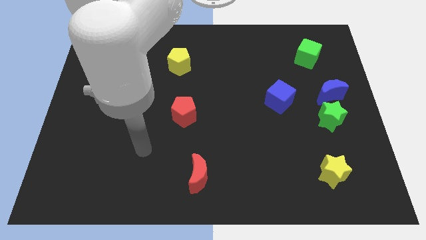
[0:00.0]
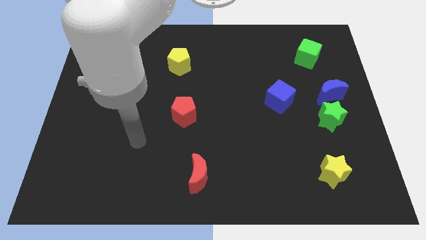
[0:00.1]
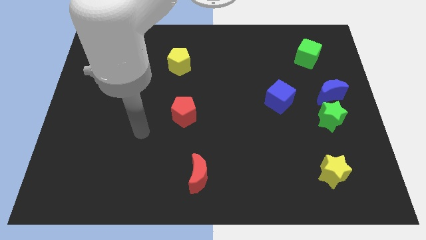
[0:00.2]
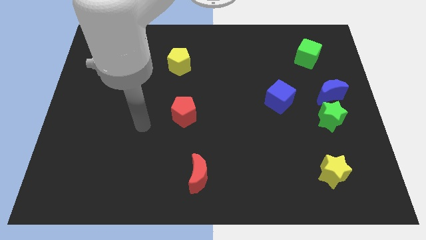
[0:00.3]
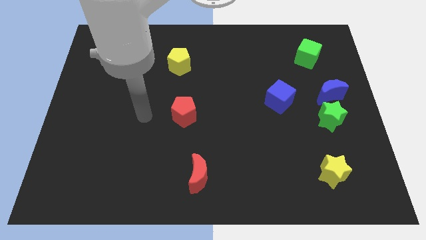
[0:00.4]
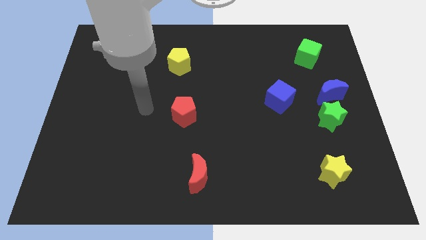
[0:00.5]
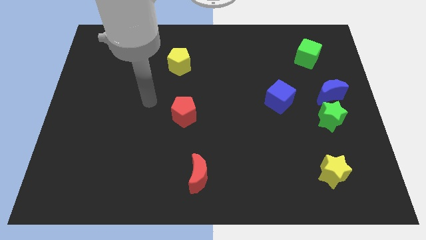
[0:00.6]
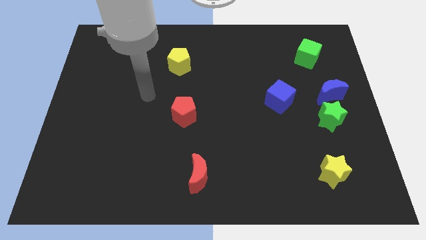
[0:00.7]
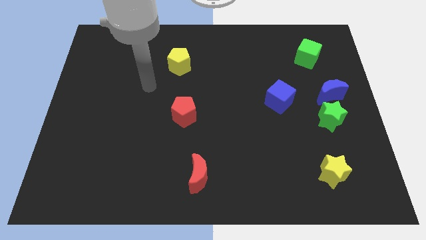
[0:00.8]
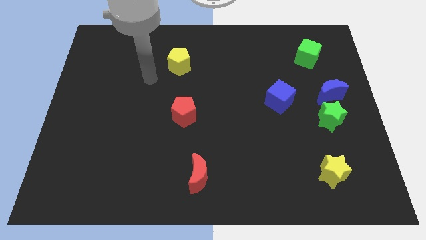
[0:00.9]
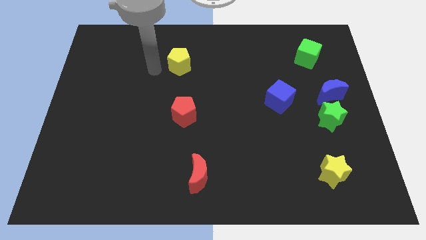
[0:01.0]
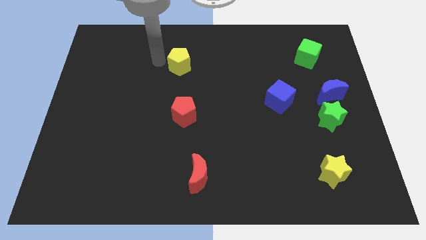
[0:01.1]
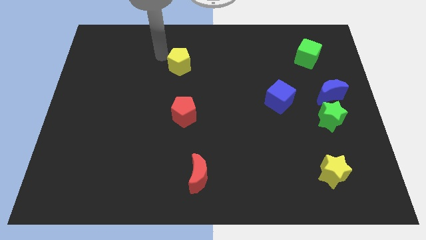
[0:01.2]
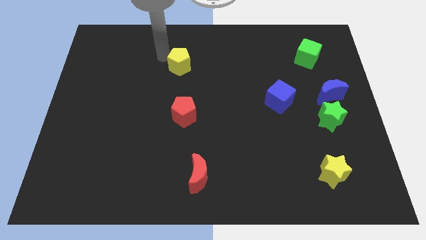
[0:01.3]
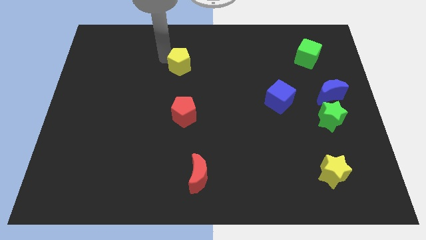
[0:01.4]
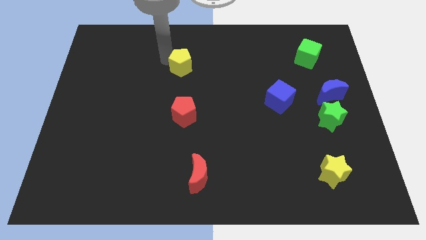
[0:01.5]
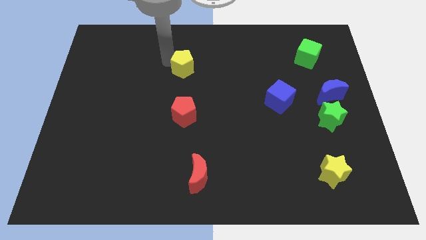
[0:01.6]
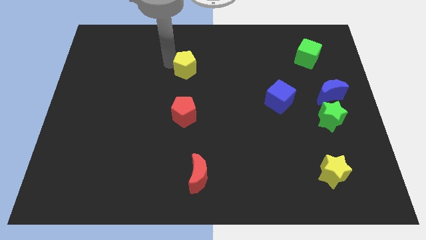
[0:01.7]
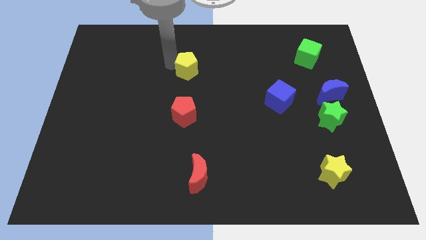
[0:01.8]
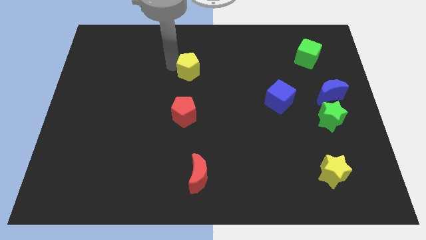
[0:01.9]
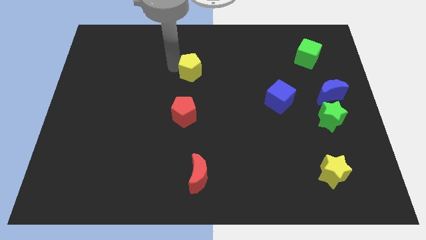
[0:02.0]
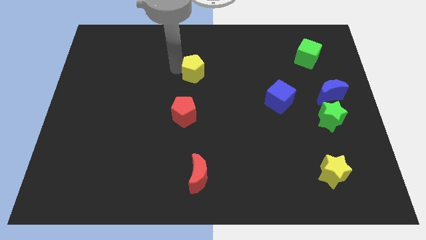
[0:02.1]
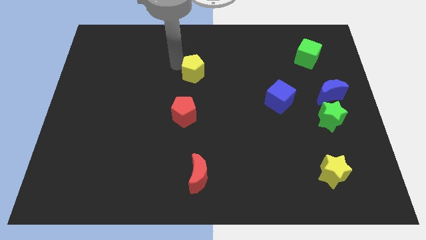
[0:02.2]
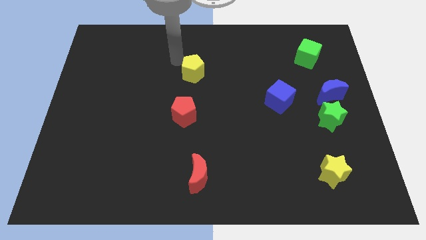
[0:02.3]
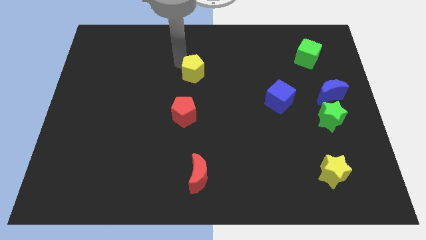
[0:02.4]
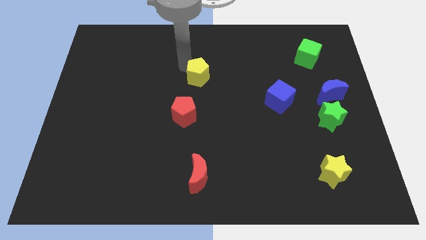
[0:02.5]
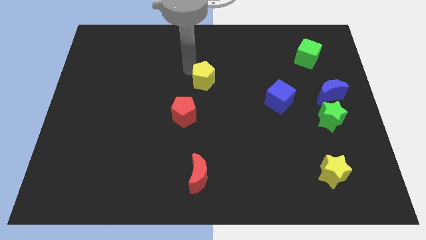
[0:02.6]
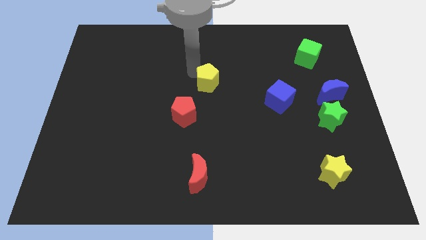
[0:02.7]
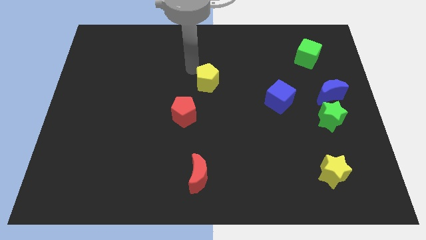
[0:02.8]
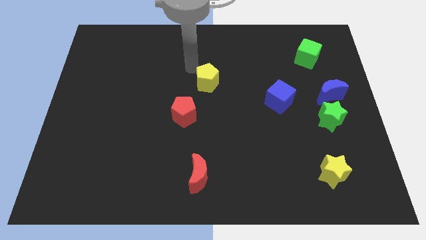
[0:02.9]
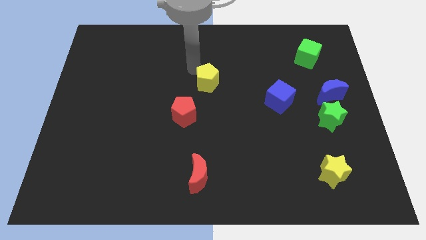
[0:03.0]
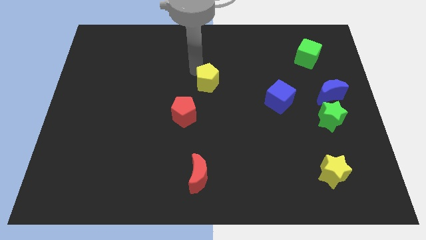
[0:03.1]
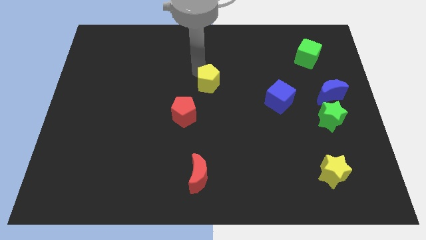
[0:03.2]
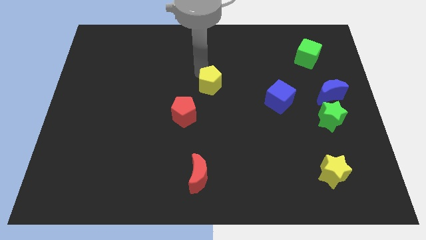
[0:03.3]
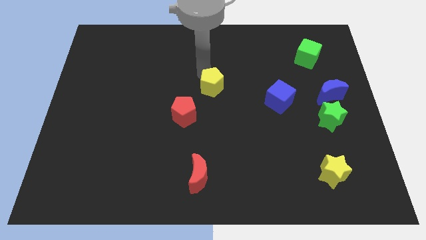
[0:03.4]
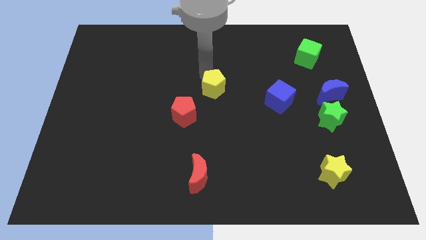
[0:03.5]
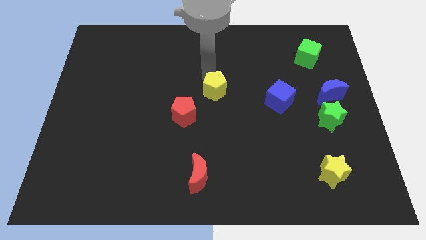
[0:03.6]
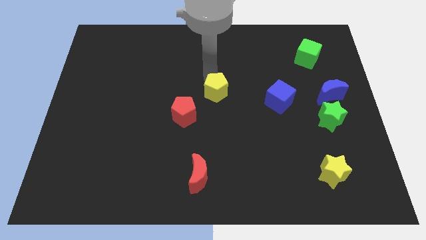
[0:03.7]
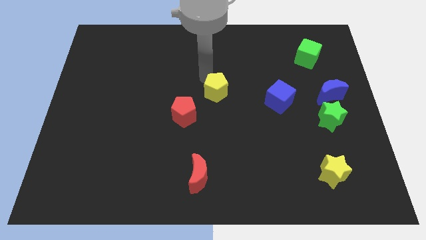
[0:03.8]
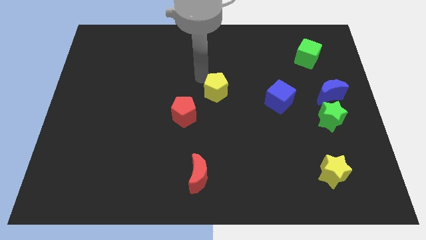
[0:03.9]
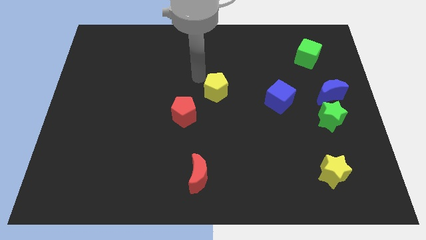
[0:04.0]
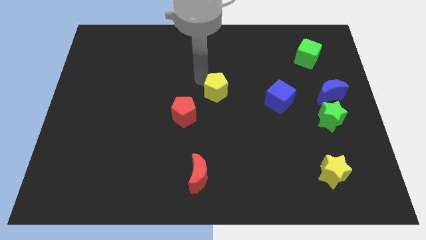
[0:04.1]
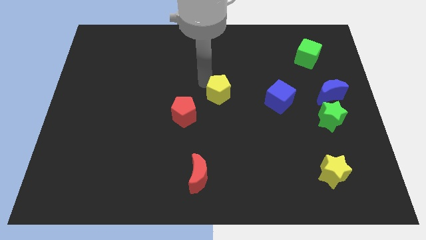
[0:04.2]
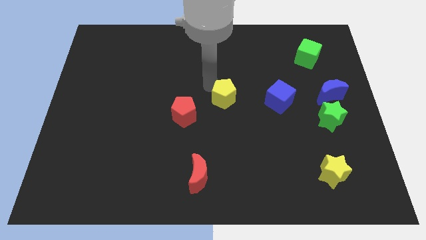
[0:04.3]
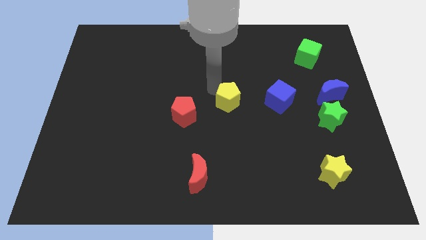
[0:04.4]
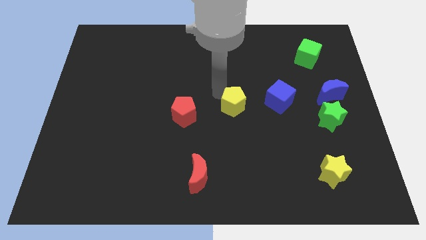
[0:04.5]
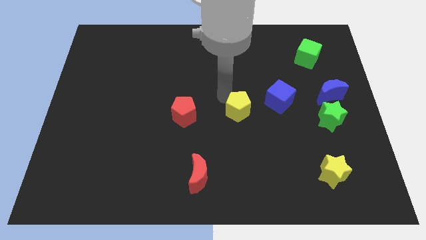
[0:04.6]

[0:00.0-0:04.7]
push the yellow pentagon downwards and to the right

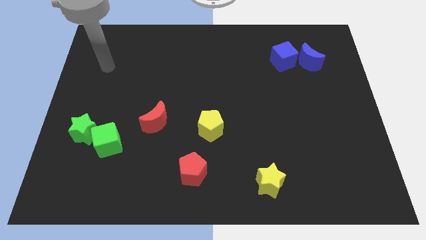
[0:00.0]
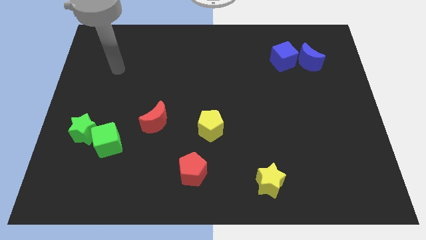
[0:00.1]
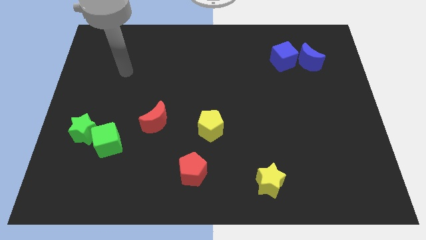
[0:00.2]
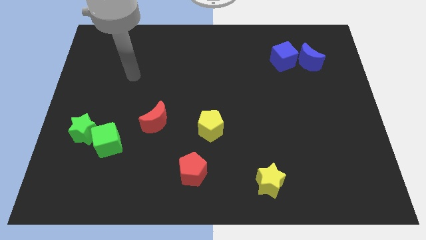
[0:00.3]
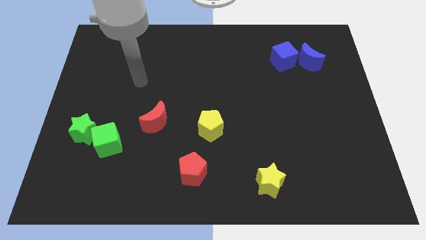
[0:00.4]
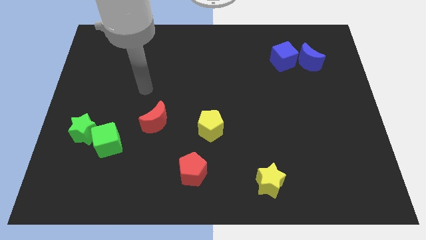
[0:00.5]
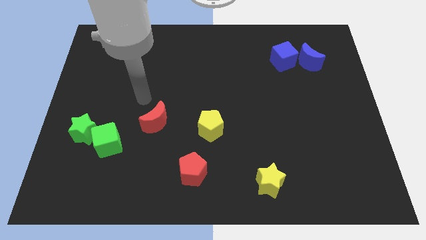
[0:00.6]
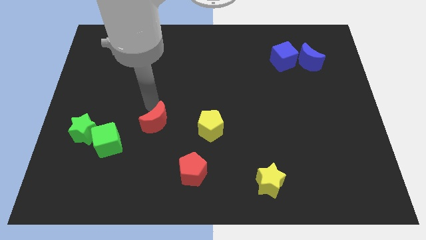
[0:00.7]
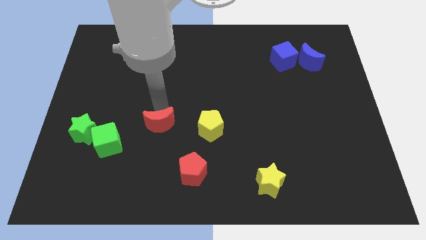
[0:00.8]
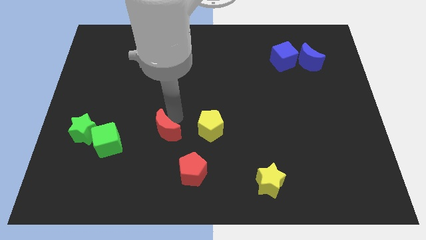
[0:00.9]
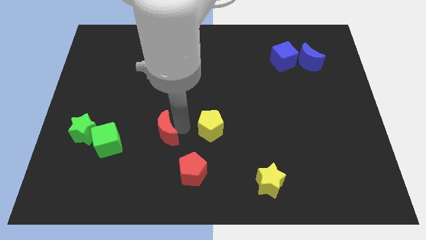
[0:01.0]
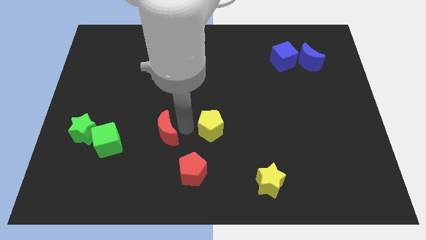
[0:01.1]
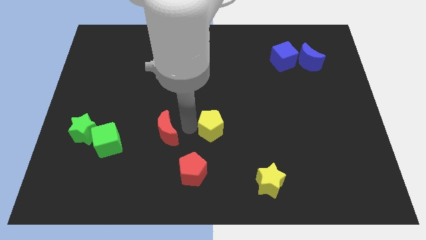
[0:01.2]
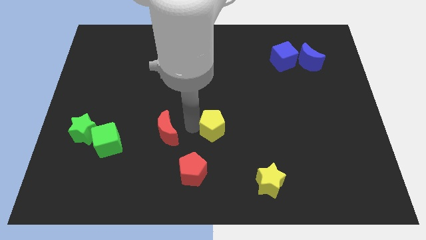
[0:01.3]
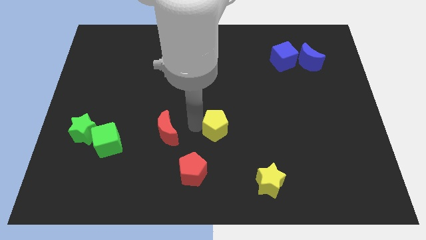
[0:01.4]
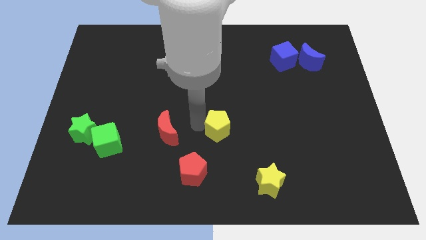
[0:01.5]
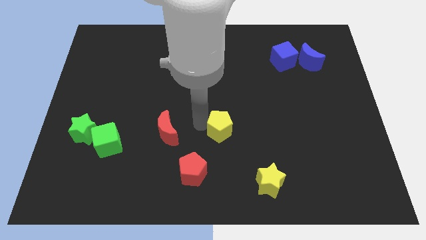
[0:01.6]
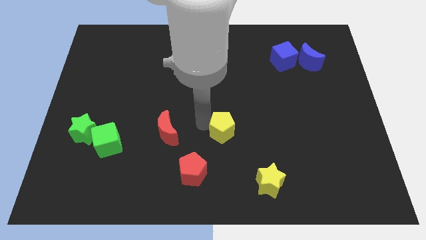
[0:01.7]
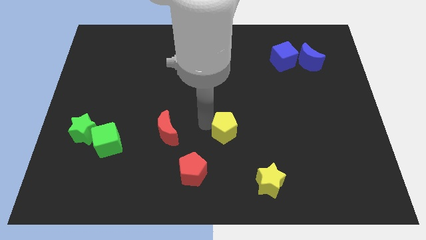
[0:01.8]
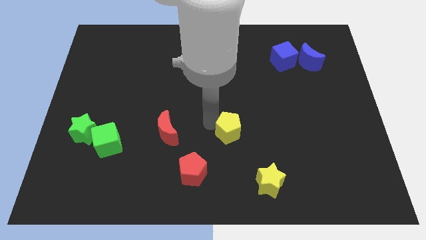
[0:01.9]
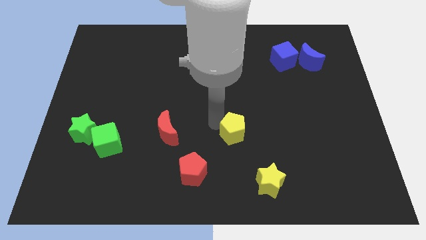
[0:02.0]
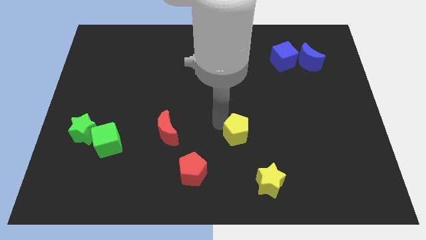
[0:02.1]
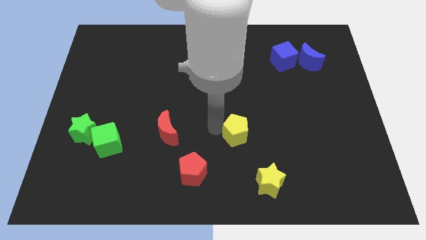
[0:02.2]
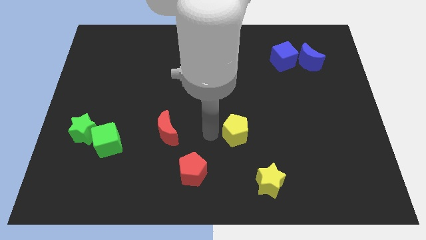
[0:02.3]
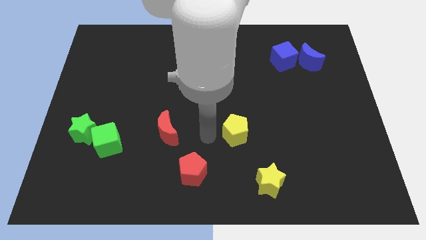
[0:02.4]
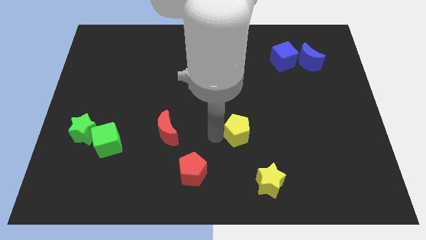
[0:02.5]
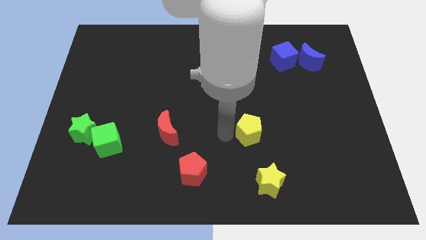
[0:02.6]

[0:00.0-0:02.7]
slightly move the yellow pentagon right

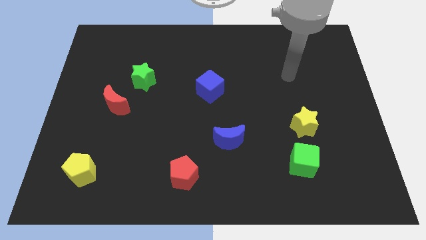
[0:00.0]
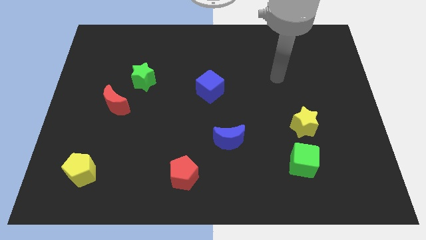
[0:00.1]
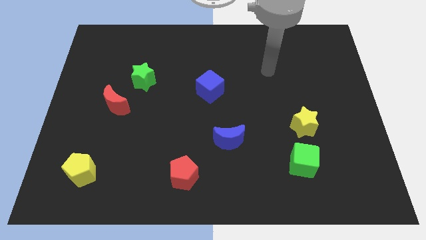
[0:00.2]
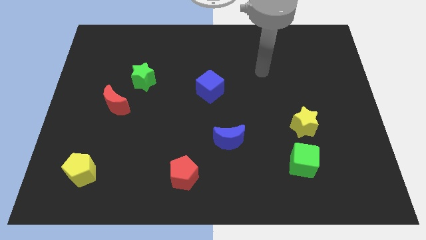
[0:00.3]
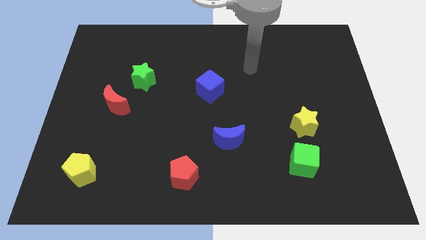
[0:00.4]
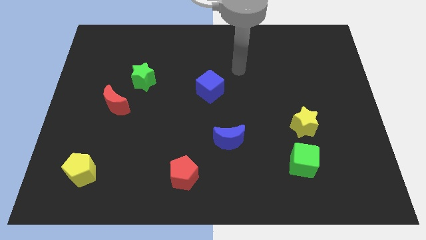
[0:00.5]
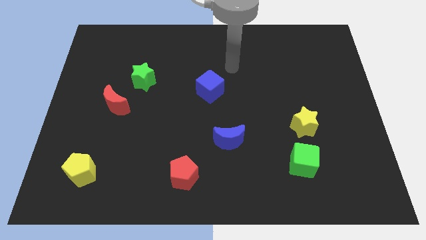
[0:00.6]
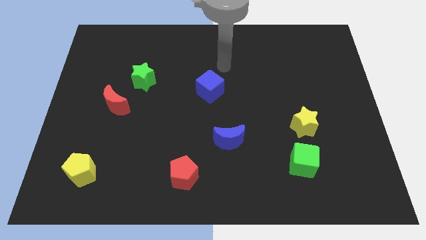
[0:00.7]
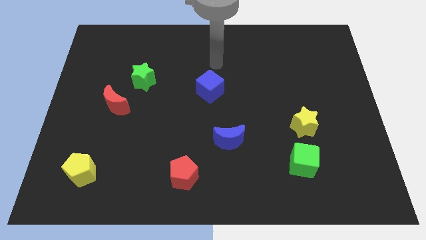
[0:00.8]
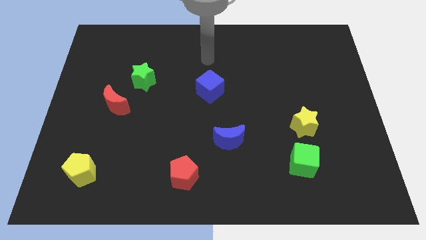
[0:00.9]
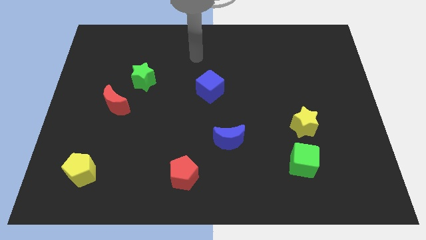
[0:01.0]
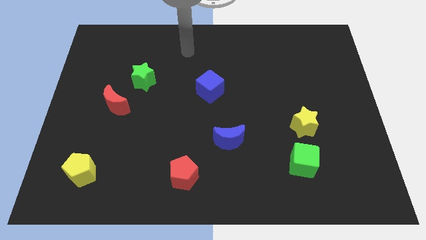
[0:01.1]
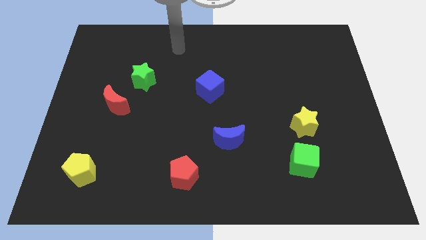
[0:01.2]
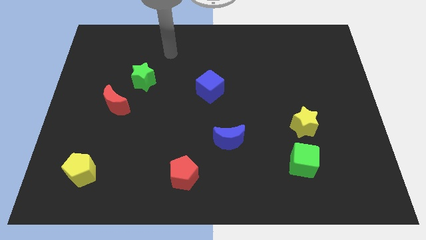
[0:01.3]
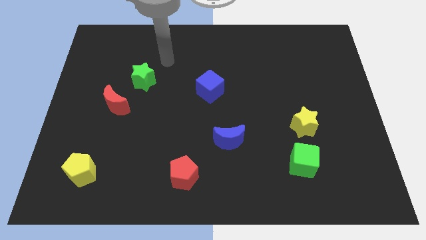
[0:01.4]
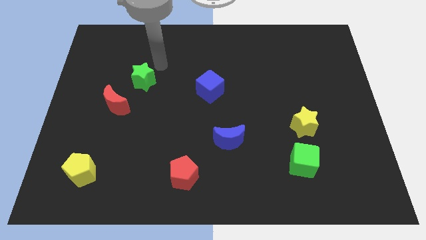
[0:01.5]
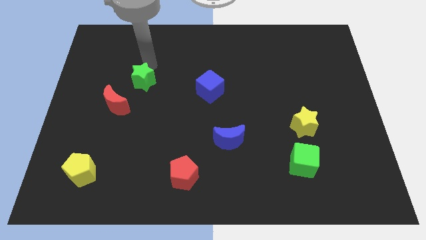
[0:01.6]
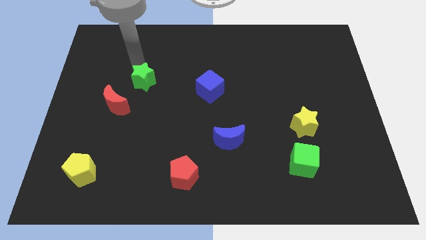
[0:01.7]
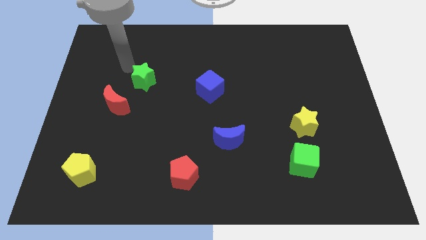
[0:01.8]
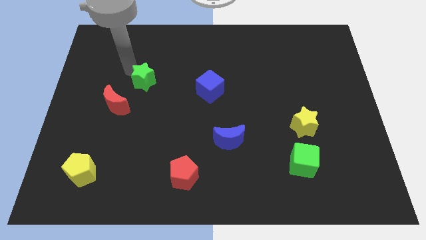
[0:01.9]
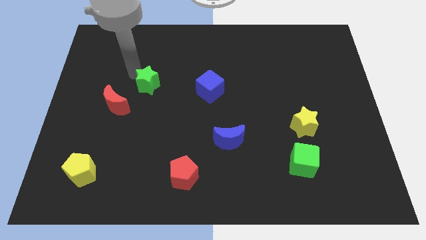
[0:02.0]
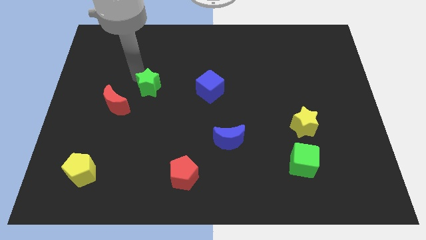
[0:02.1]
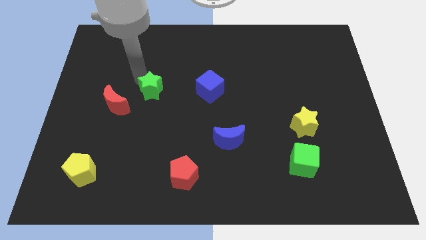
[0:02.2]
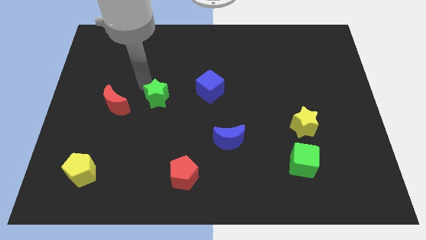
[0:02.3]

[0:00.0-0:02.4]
move the green star downwards and then to the right a bit
